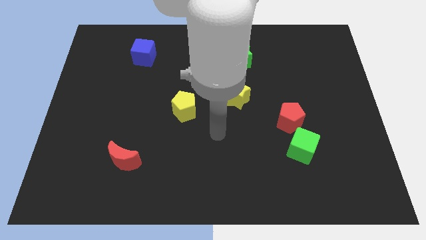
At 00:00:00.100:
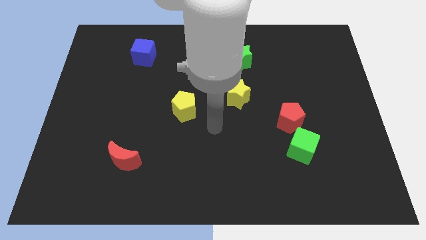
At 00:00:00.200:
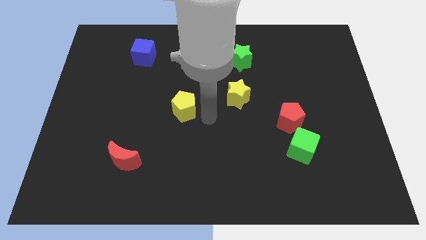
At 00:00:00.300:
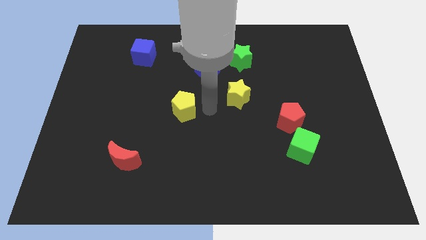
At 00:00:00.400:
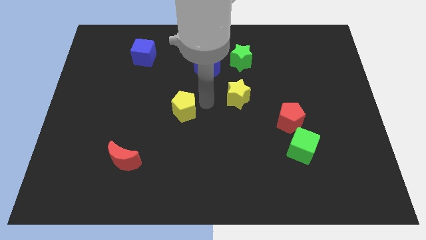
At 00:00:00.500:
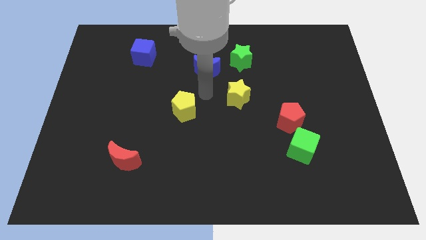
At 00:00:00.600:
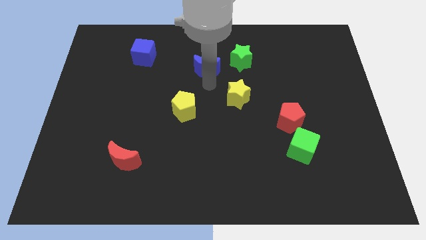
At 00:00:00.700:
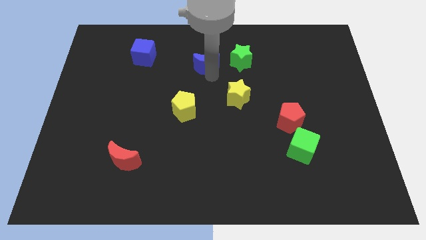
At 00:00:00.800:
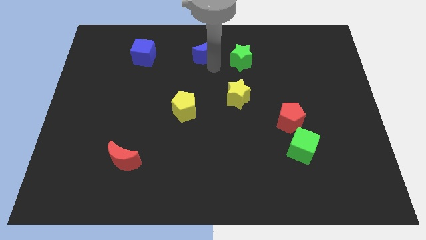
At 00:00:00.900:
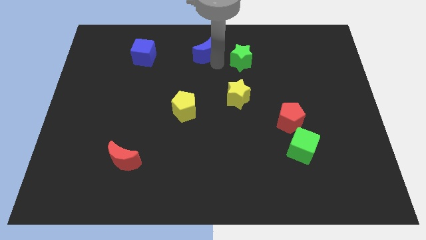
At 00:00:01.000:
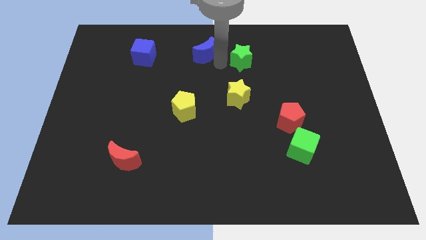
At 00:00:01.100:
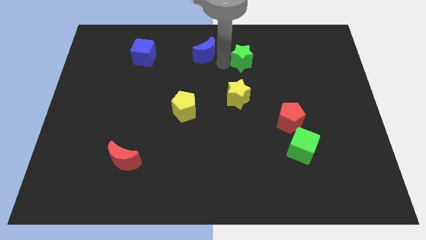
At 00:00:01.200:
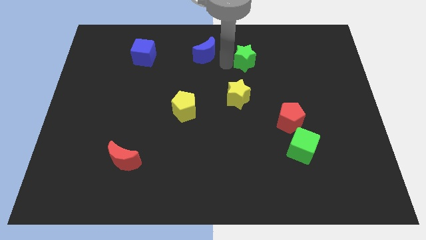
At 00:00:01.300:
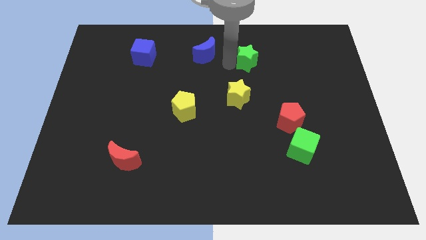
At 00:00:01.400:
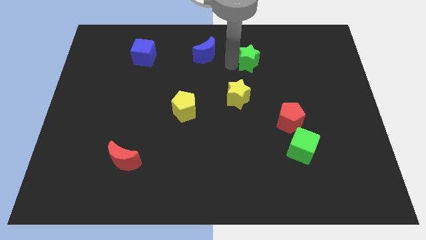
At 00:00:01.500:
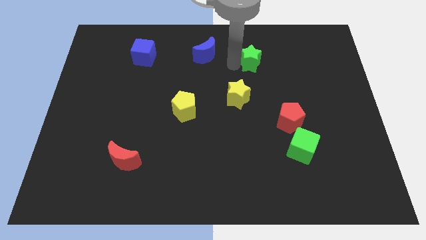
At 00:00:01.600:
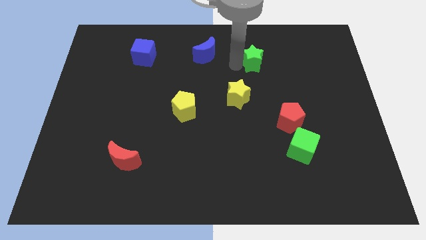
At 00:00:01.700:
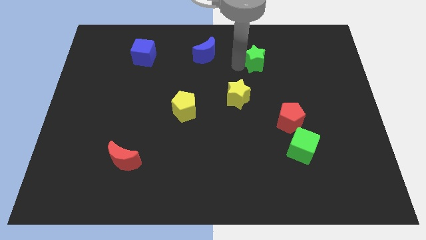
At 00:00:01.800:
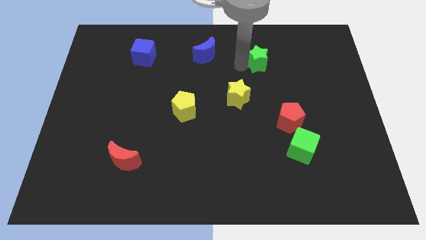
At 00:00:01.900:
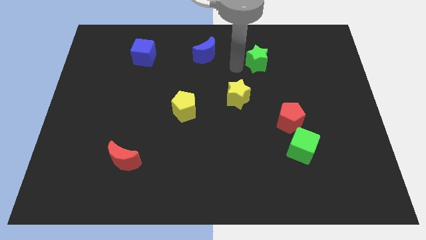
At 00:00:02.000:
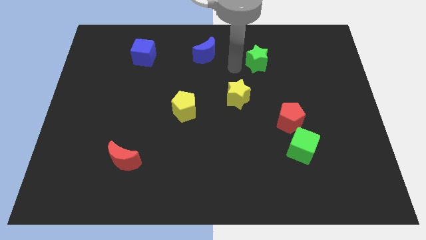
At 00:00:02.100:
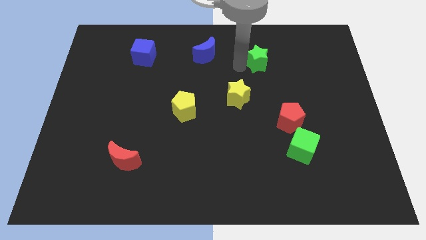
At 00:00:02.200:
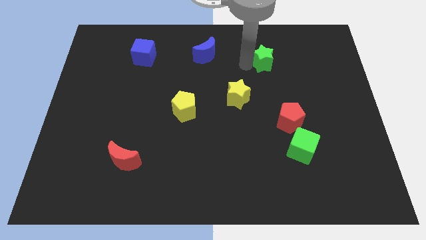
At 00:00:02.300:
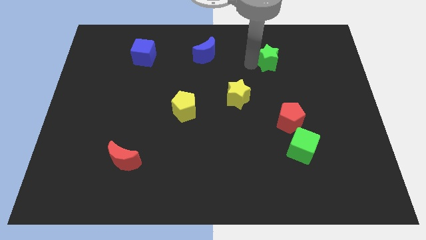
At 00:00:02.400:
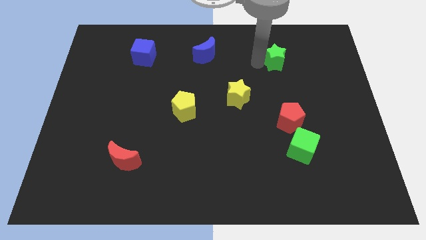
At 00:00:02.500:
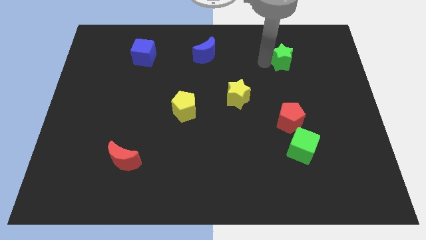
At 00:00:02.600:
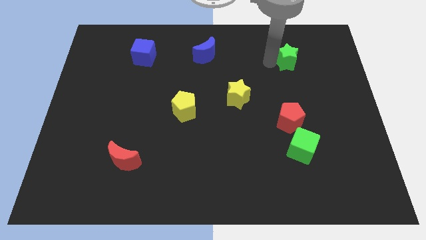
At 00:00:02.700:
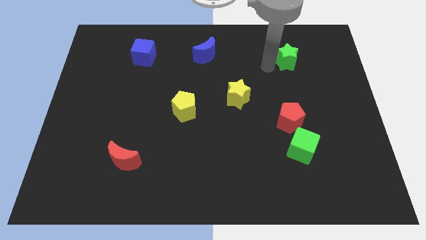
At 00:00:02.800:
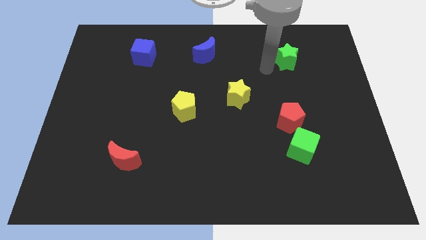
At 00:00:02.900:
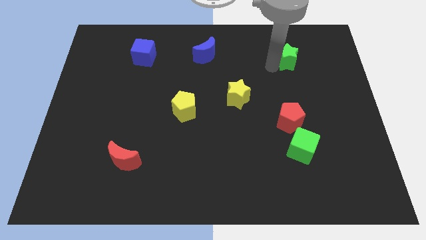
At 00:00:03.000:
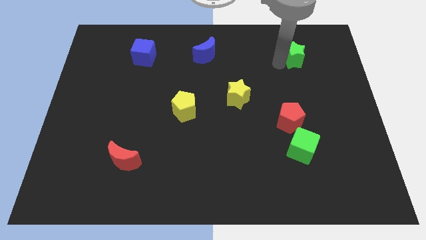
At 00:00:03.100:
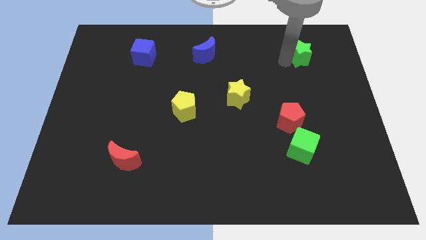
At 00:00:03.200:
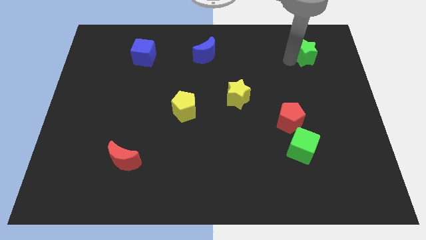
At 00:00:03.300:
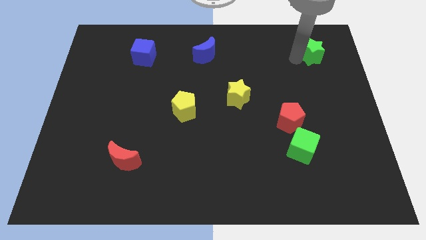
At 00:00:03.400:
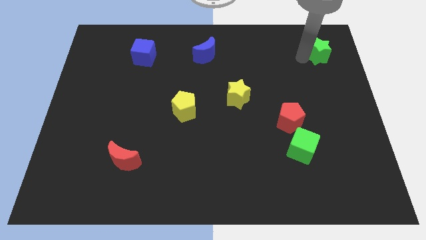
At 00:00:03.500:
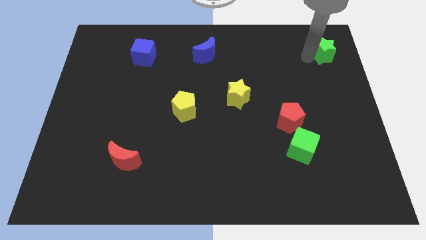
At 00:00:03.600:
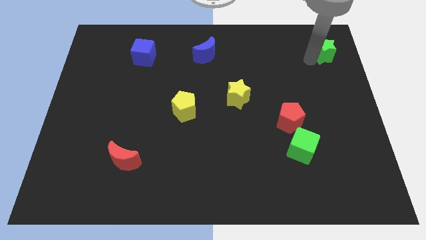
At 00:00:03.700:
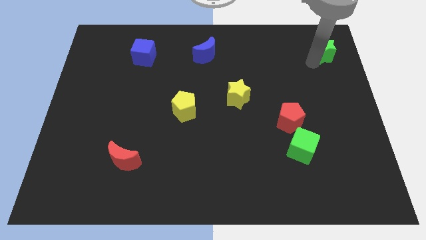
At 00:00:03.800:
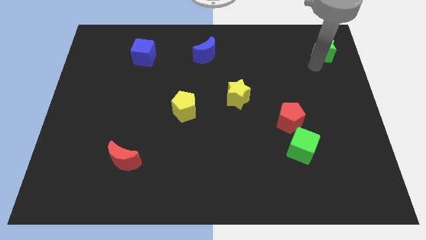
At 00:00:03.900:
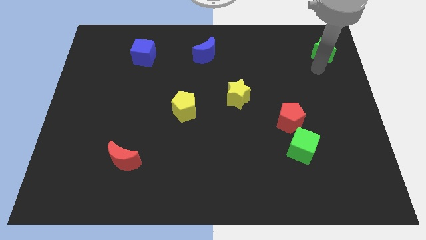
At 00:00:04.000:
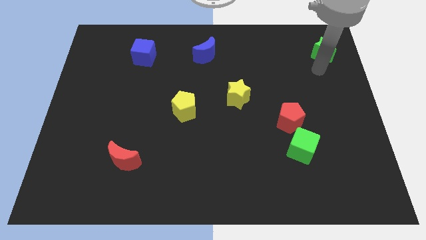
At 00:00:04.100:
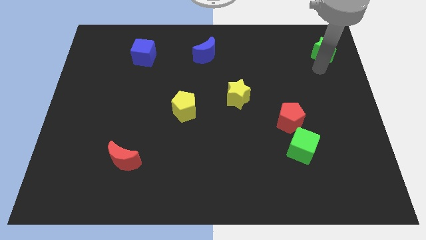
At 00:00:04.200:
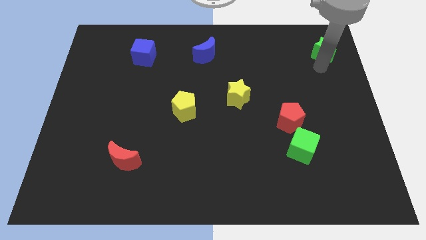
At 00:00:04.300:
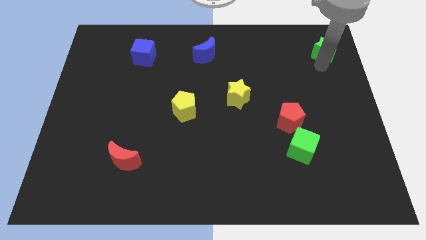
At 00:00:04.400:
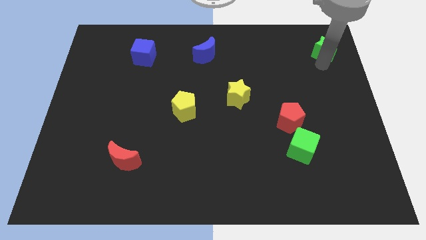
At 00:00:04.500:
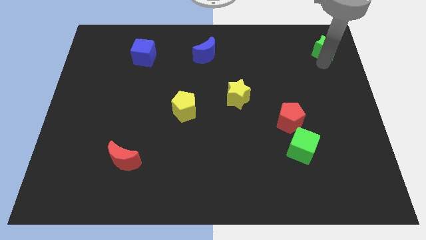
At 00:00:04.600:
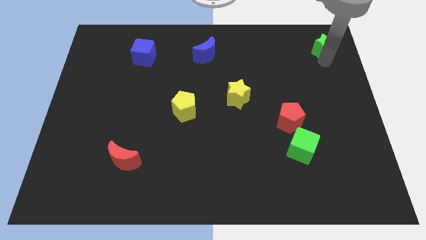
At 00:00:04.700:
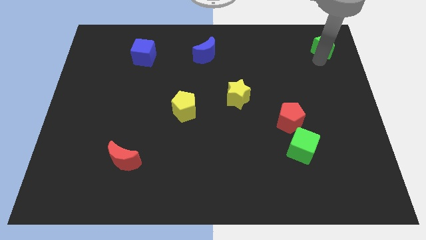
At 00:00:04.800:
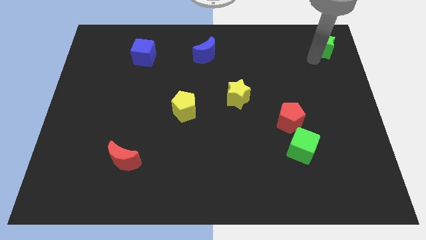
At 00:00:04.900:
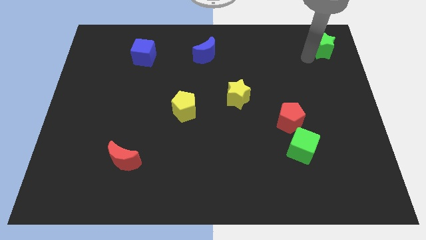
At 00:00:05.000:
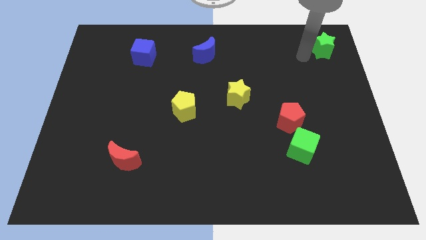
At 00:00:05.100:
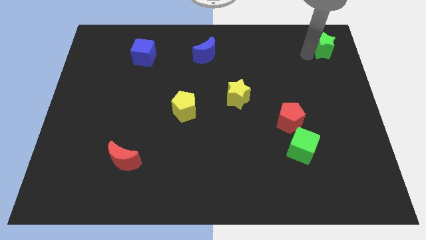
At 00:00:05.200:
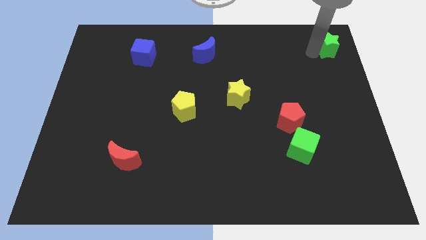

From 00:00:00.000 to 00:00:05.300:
put the green star to the top right corner

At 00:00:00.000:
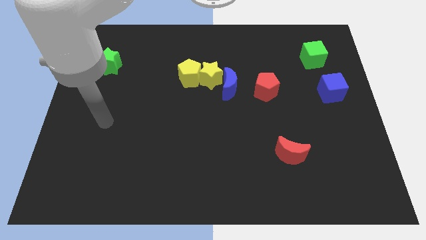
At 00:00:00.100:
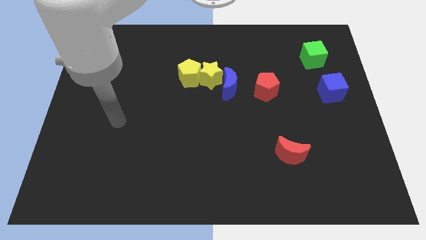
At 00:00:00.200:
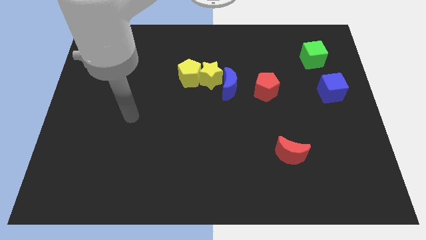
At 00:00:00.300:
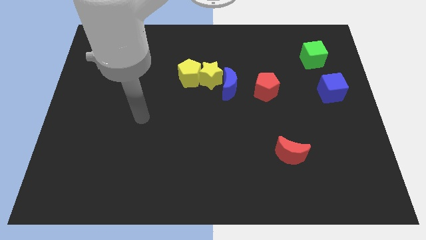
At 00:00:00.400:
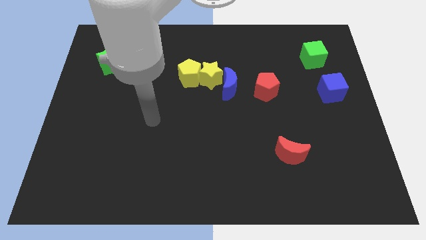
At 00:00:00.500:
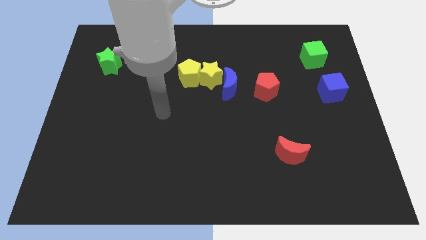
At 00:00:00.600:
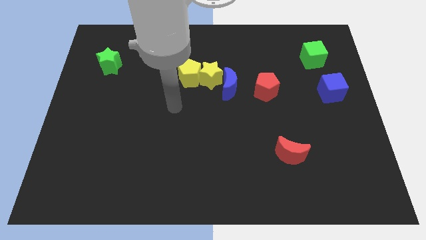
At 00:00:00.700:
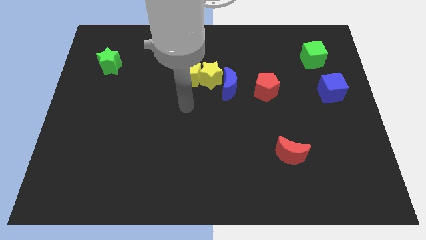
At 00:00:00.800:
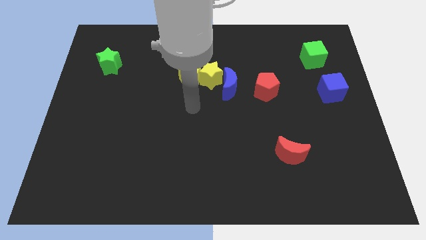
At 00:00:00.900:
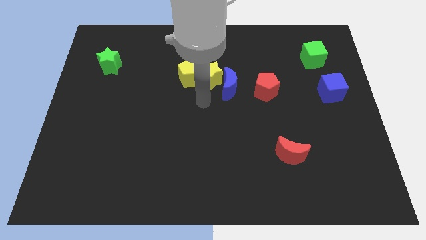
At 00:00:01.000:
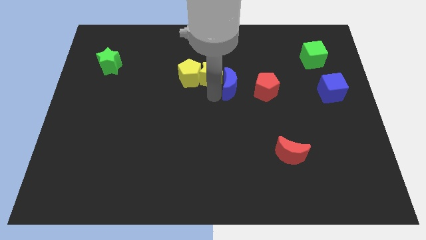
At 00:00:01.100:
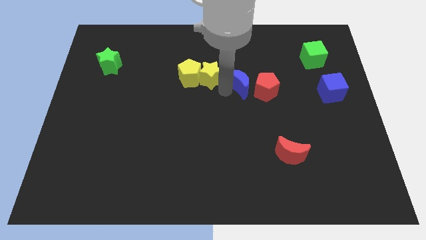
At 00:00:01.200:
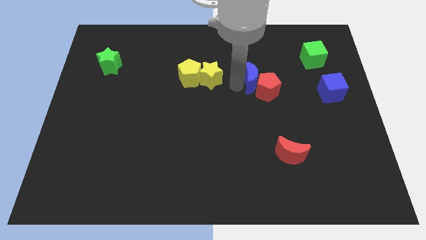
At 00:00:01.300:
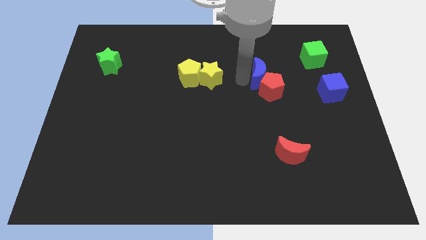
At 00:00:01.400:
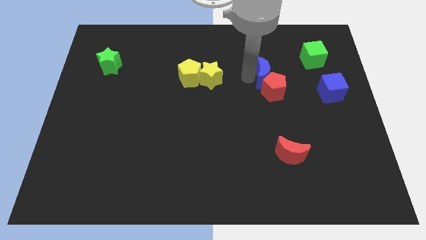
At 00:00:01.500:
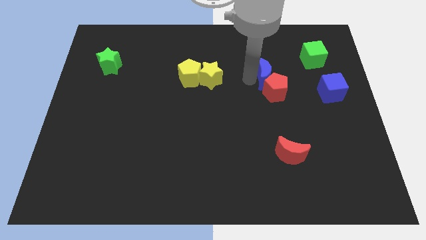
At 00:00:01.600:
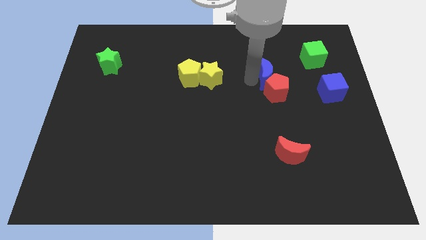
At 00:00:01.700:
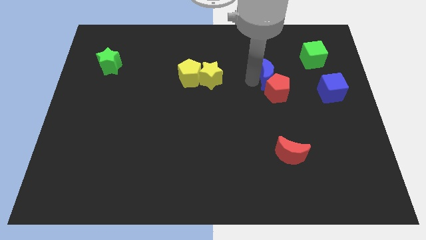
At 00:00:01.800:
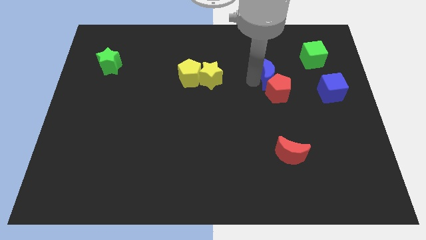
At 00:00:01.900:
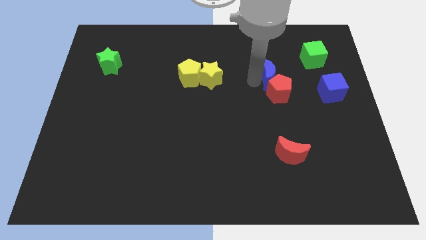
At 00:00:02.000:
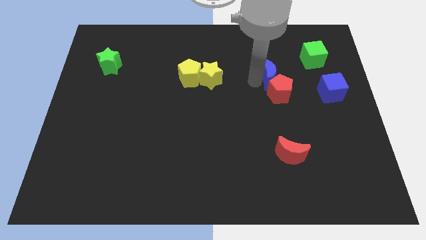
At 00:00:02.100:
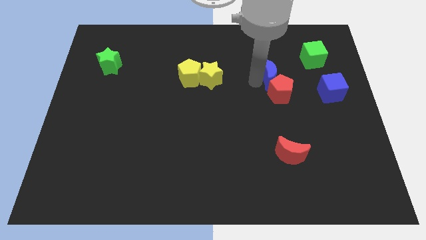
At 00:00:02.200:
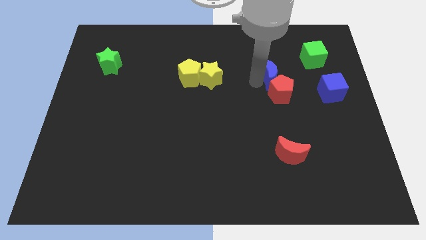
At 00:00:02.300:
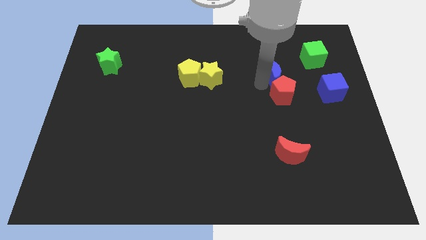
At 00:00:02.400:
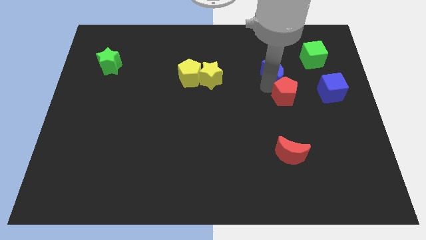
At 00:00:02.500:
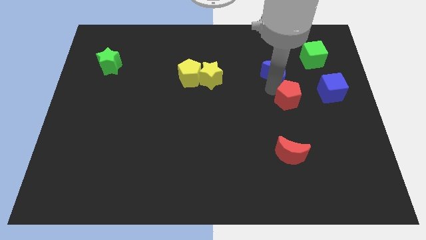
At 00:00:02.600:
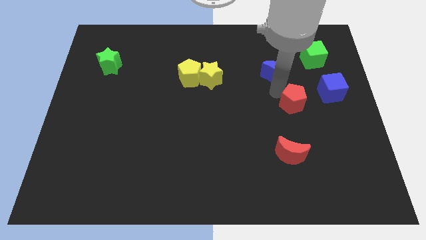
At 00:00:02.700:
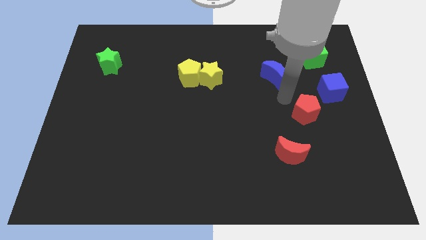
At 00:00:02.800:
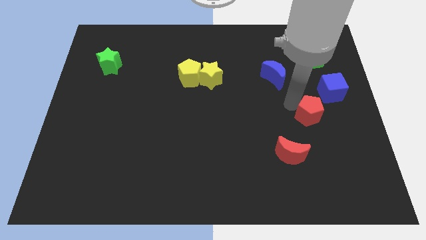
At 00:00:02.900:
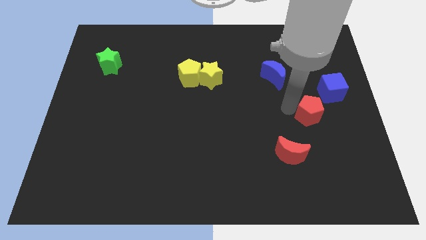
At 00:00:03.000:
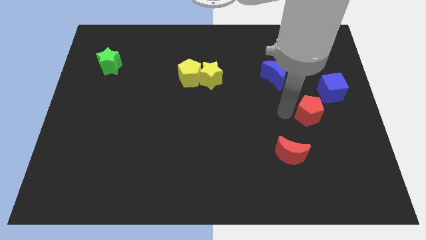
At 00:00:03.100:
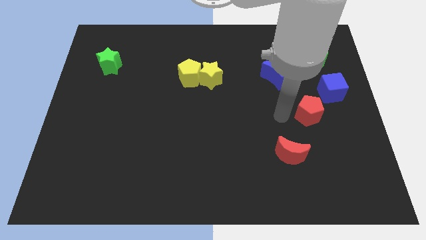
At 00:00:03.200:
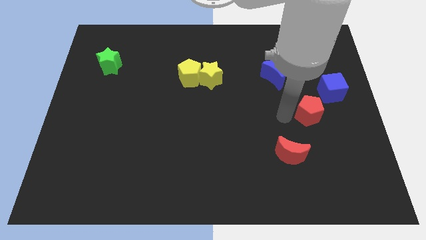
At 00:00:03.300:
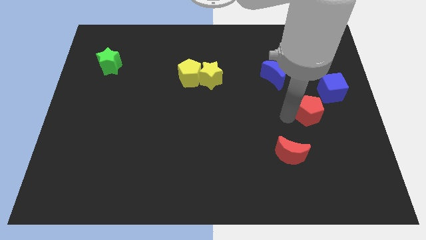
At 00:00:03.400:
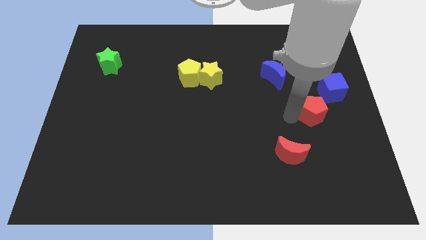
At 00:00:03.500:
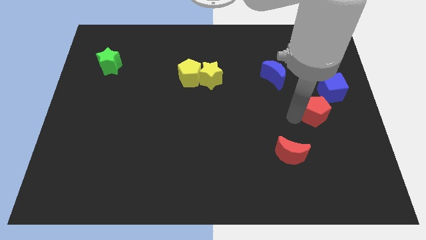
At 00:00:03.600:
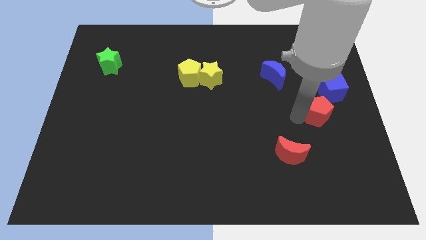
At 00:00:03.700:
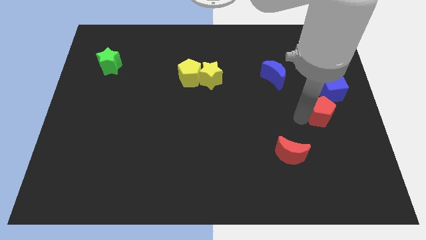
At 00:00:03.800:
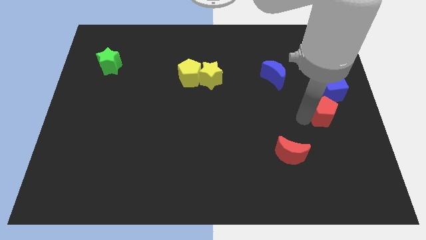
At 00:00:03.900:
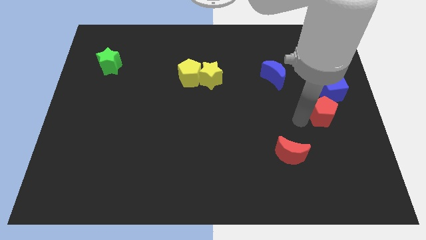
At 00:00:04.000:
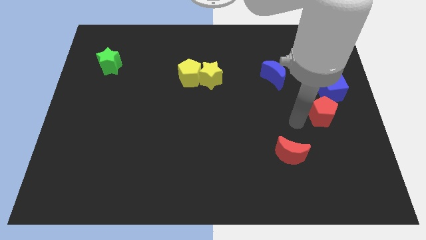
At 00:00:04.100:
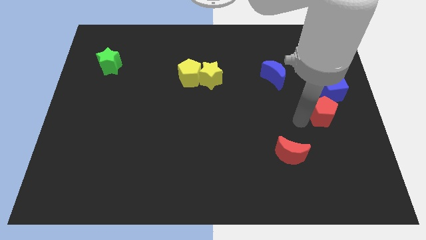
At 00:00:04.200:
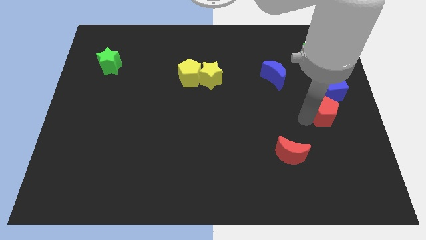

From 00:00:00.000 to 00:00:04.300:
slide the red pentagon to the center right
